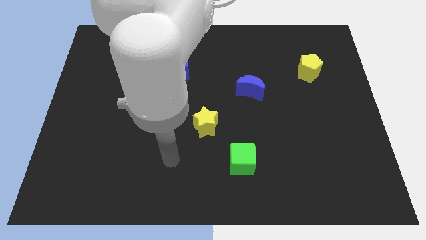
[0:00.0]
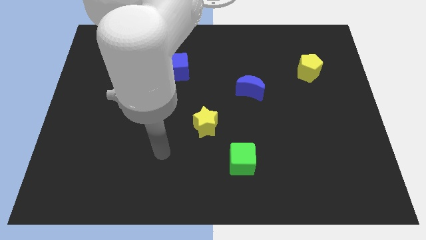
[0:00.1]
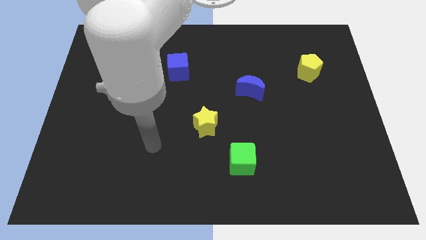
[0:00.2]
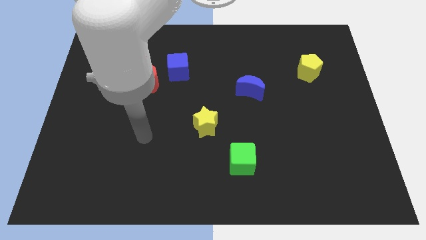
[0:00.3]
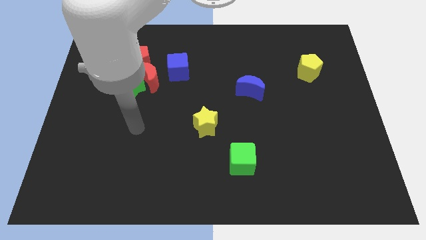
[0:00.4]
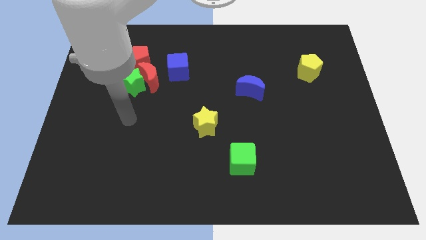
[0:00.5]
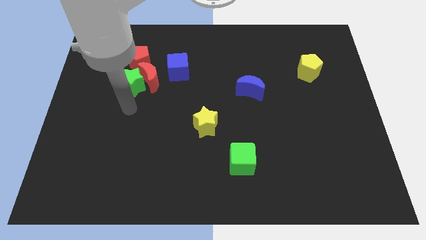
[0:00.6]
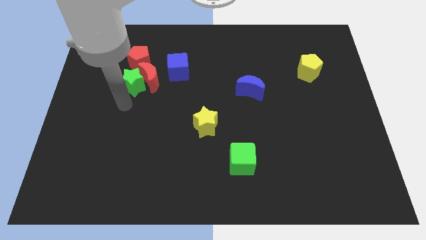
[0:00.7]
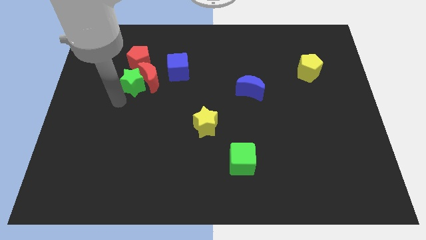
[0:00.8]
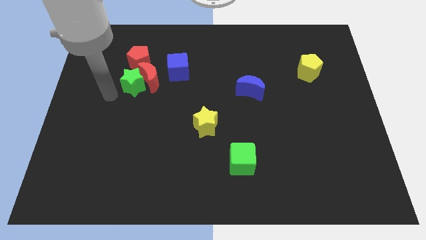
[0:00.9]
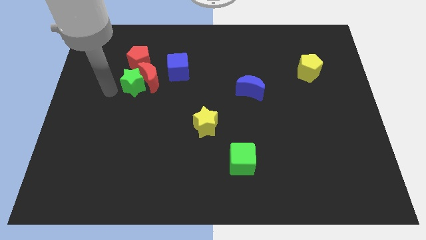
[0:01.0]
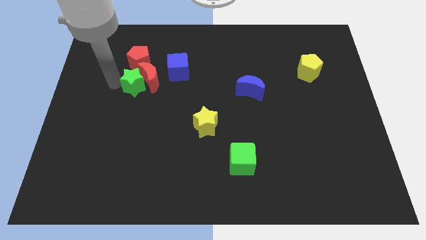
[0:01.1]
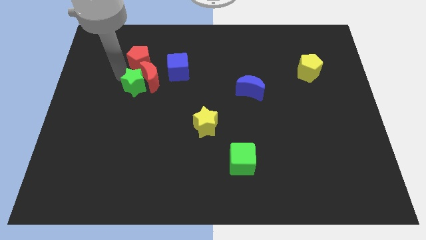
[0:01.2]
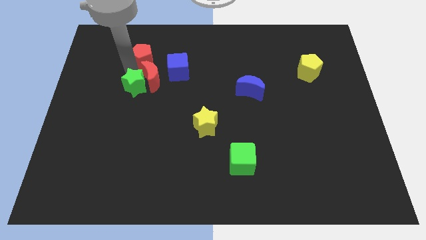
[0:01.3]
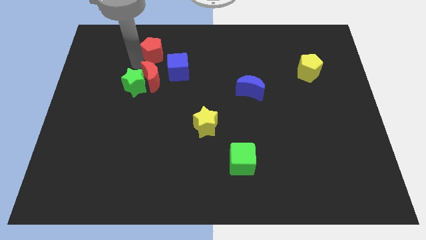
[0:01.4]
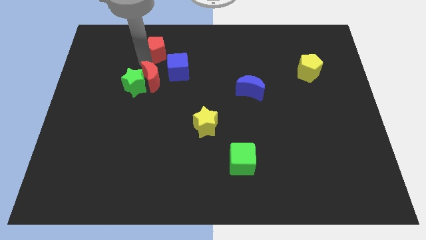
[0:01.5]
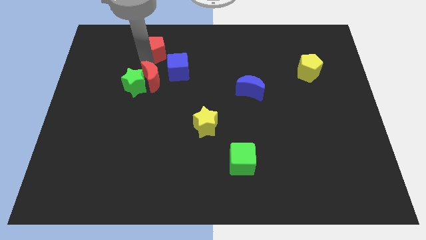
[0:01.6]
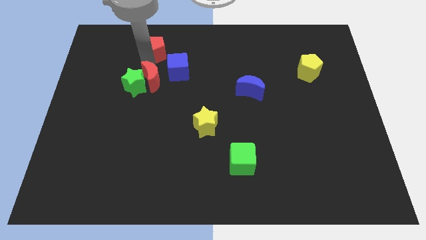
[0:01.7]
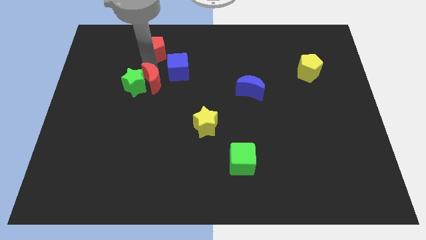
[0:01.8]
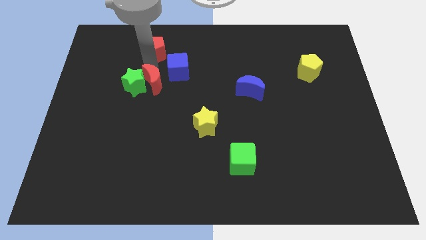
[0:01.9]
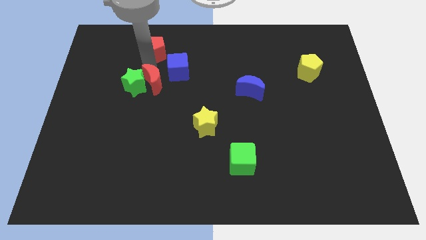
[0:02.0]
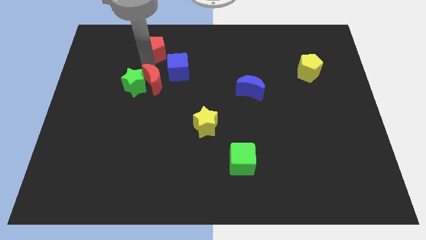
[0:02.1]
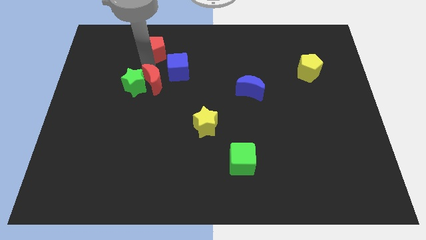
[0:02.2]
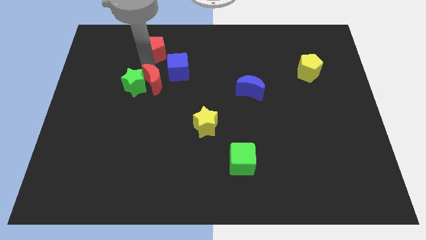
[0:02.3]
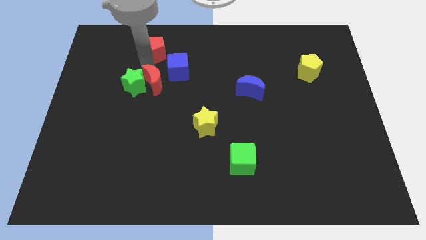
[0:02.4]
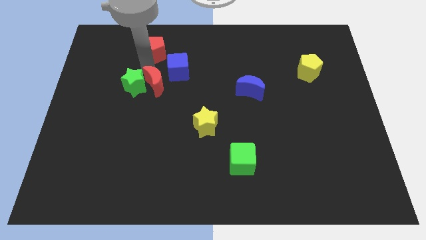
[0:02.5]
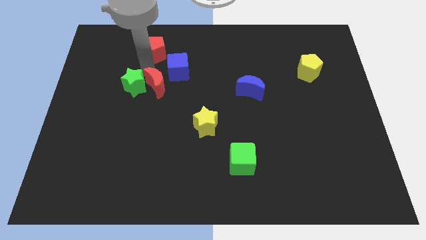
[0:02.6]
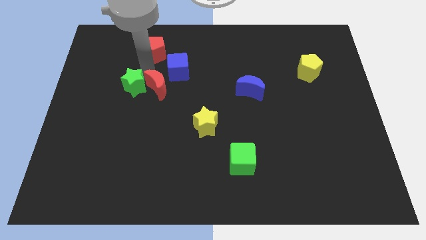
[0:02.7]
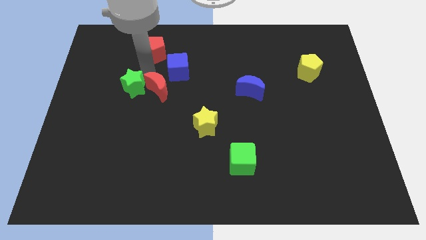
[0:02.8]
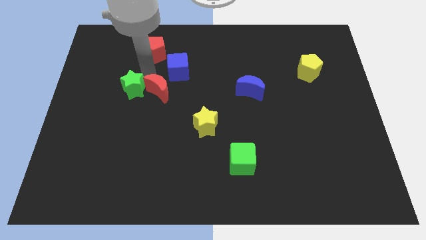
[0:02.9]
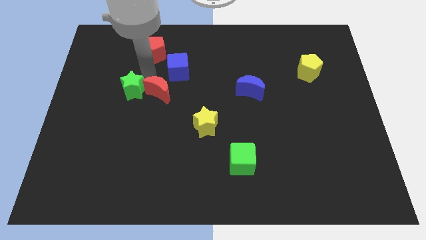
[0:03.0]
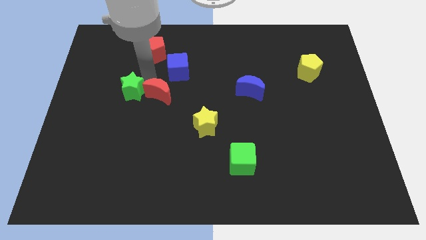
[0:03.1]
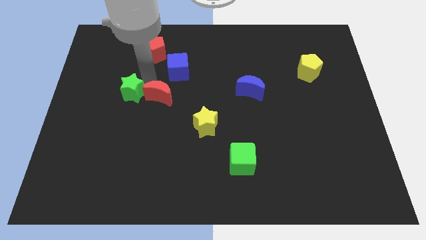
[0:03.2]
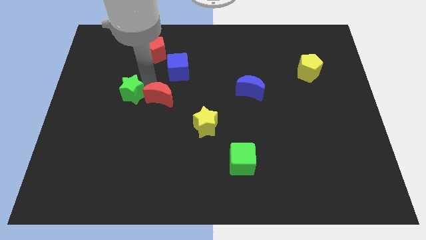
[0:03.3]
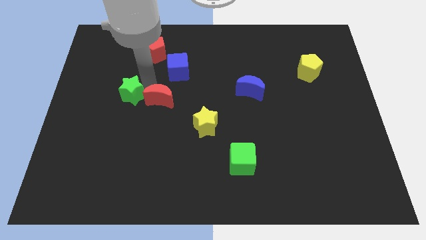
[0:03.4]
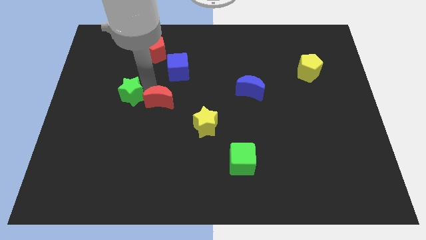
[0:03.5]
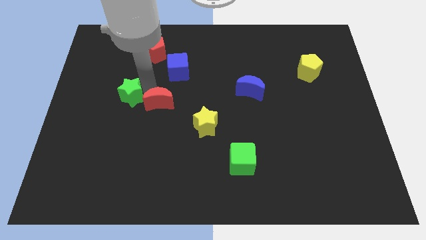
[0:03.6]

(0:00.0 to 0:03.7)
pull the red moon apart from the clump

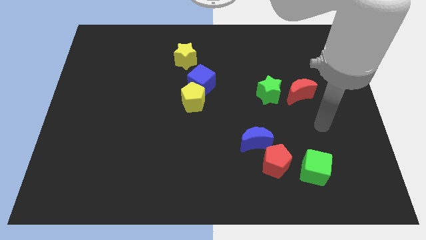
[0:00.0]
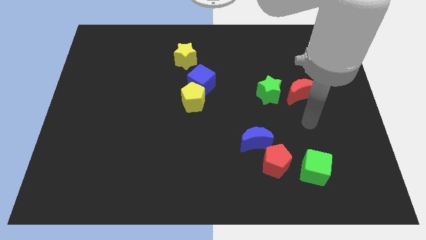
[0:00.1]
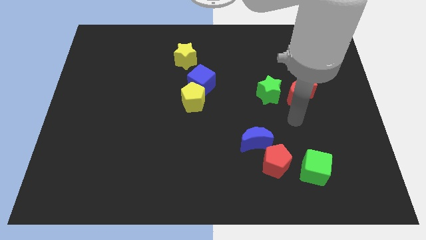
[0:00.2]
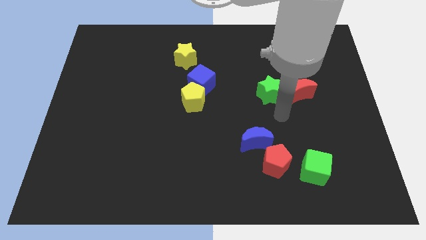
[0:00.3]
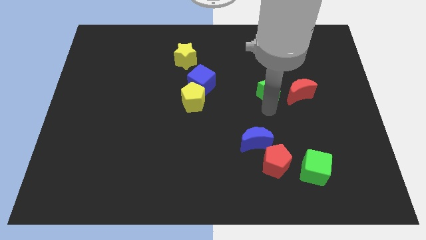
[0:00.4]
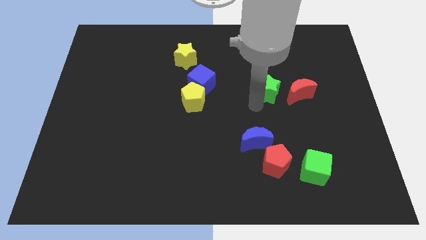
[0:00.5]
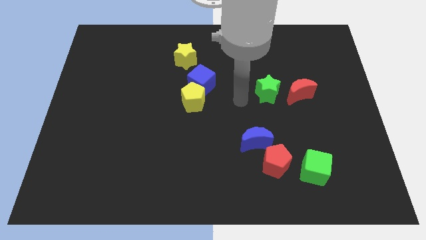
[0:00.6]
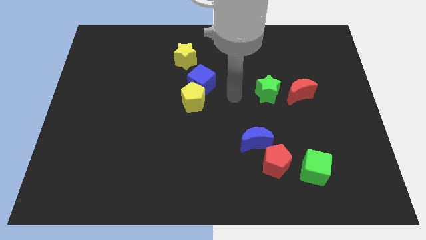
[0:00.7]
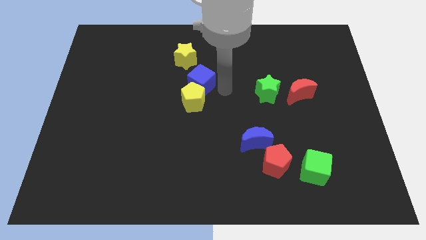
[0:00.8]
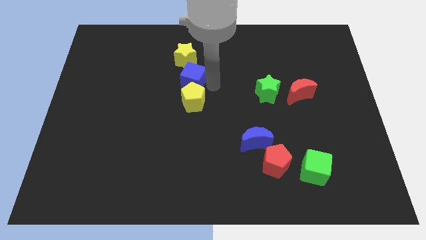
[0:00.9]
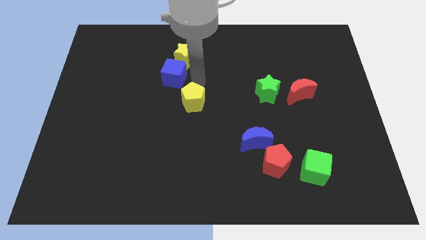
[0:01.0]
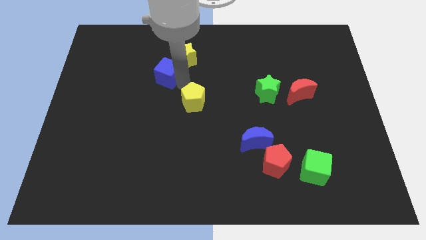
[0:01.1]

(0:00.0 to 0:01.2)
move the yellow pentagon away from the blue cube

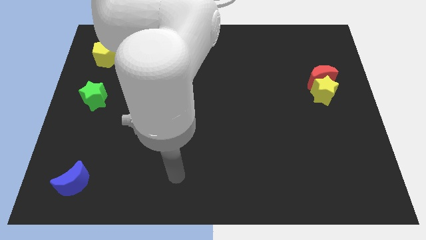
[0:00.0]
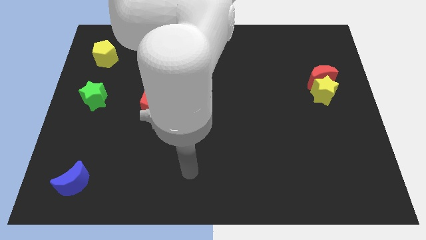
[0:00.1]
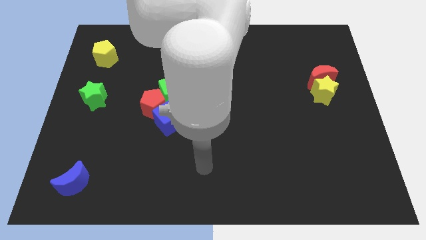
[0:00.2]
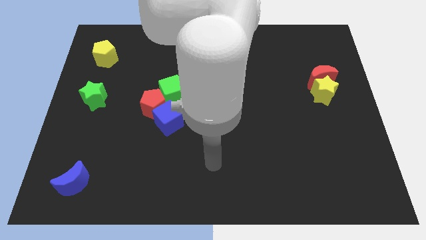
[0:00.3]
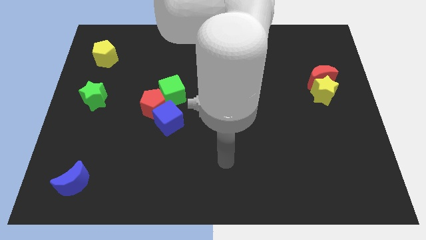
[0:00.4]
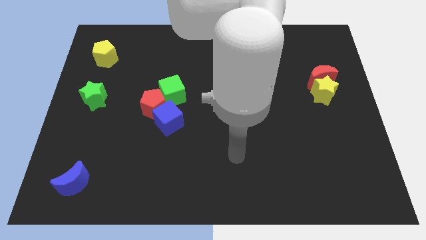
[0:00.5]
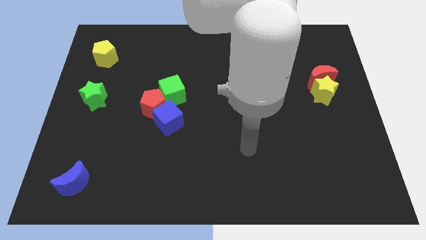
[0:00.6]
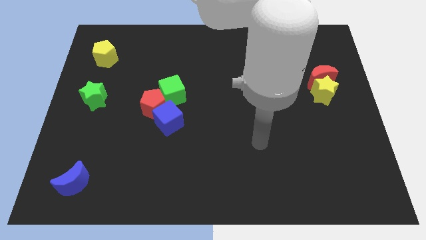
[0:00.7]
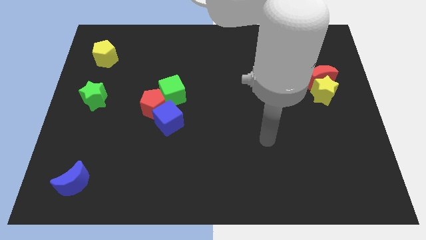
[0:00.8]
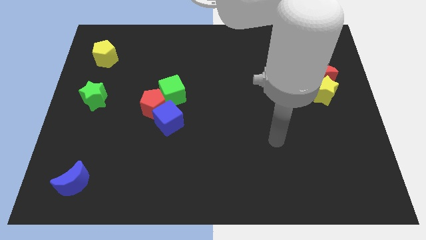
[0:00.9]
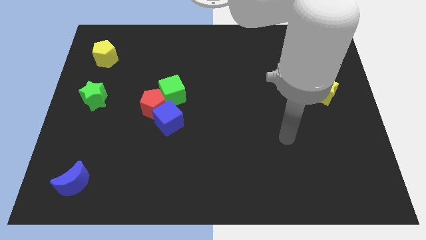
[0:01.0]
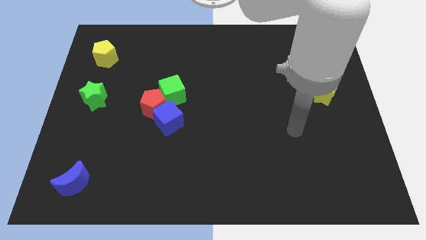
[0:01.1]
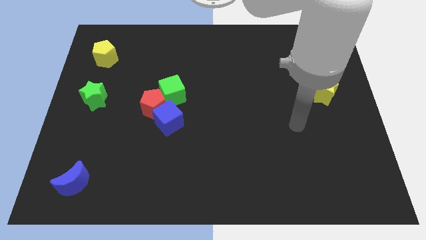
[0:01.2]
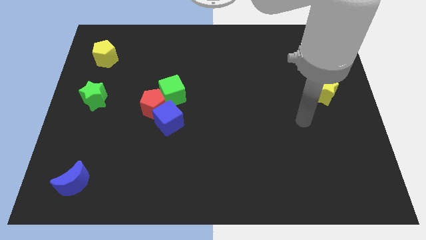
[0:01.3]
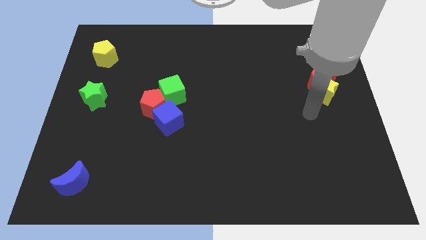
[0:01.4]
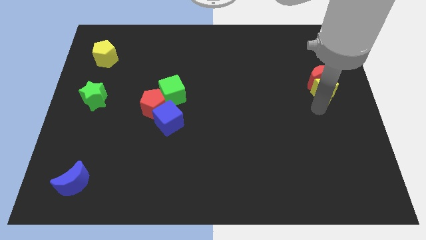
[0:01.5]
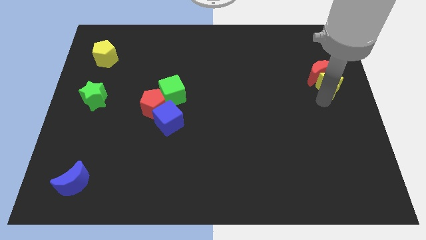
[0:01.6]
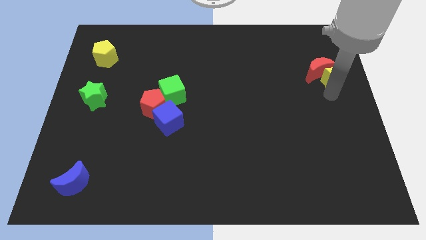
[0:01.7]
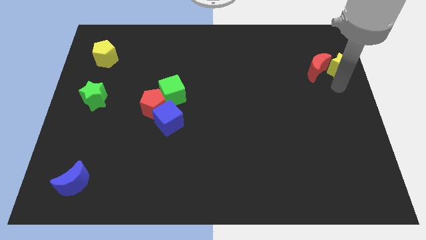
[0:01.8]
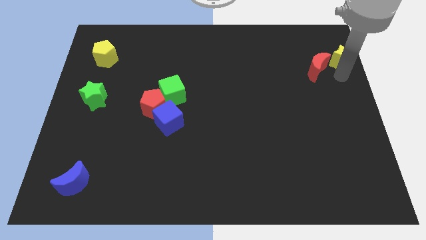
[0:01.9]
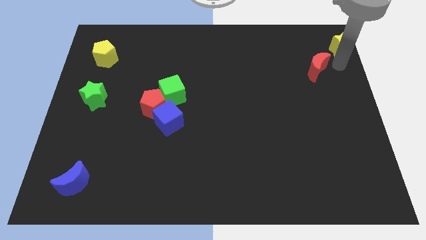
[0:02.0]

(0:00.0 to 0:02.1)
move the red moon away from the yellow star

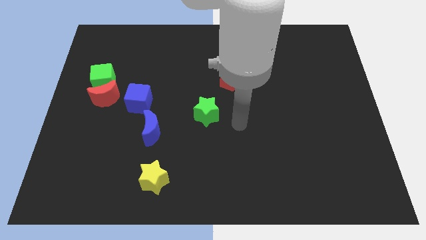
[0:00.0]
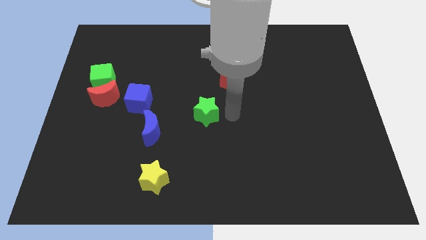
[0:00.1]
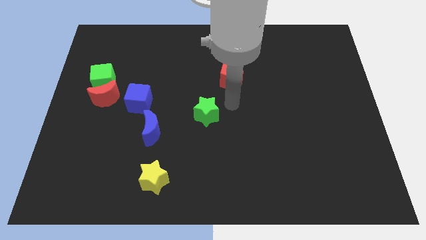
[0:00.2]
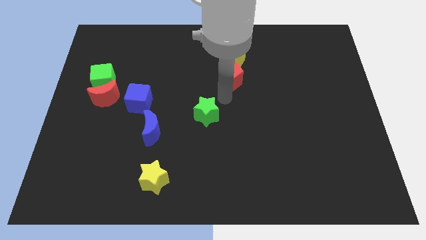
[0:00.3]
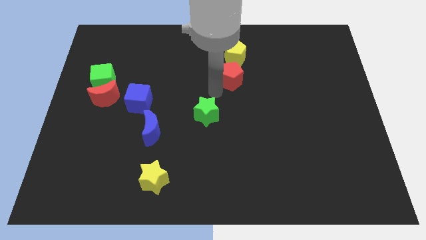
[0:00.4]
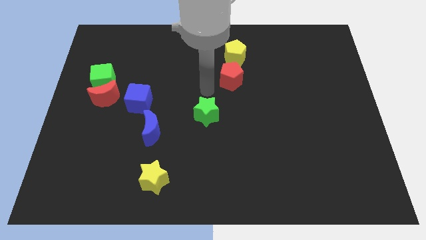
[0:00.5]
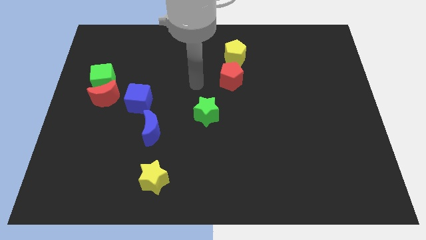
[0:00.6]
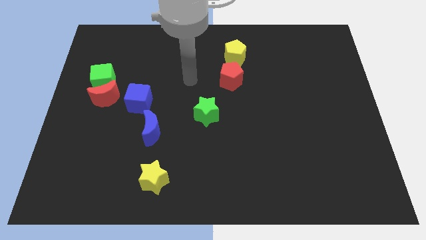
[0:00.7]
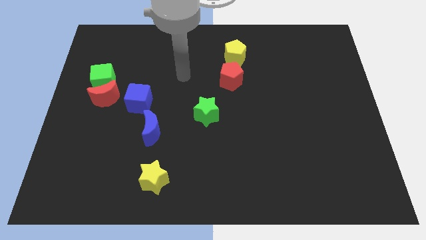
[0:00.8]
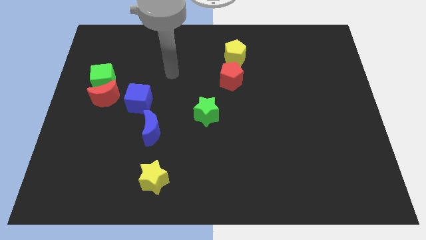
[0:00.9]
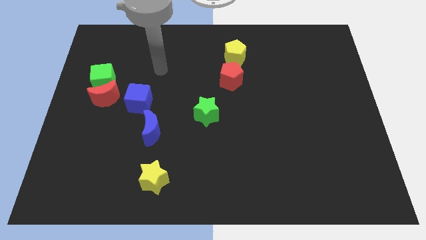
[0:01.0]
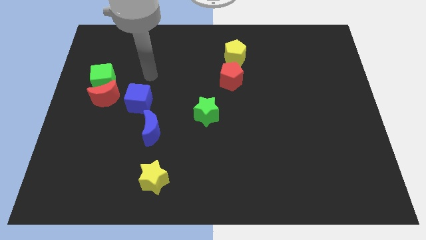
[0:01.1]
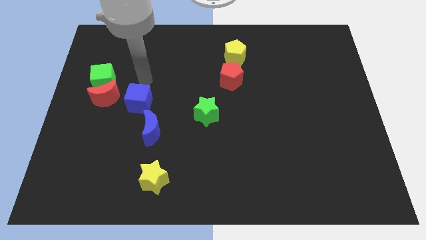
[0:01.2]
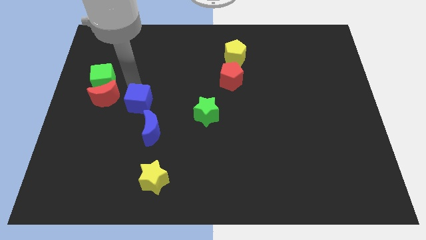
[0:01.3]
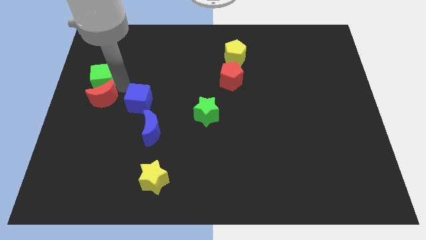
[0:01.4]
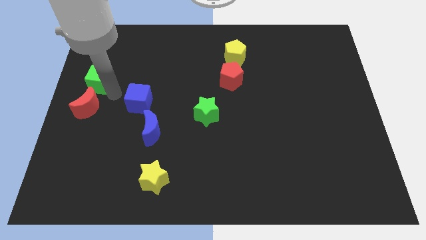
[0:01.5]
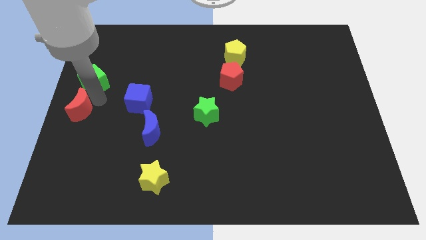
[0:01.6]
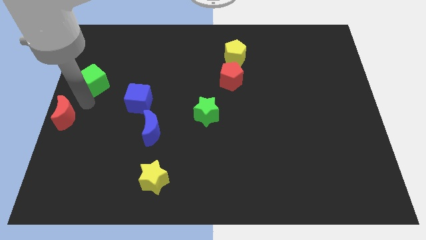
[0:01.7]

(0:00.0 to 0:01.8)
move the green cube away from the red moon

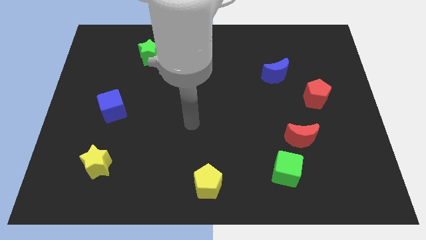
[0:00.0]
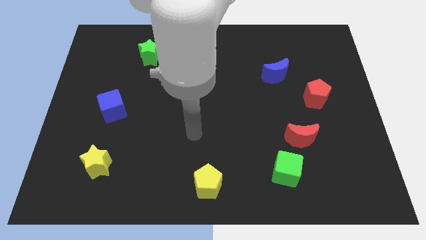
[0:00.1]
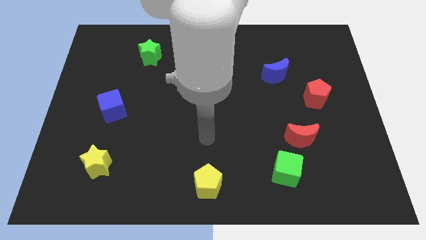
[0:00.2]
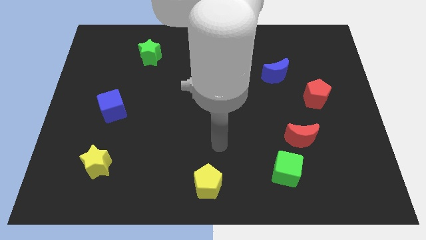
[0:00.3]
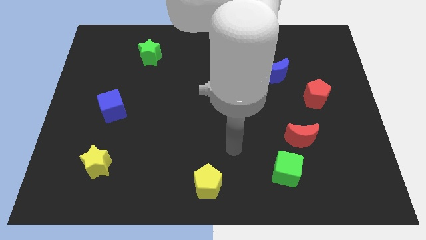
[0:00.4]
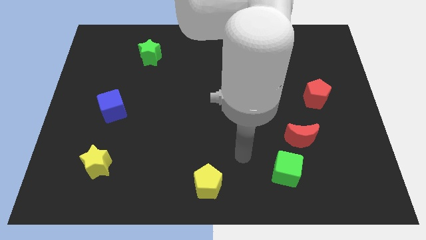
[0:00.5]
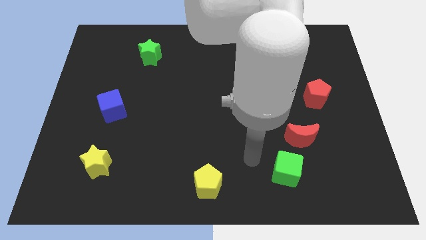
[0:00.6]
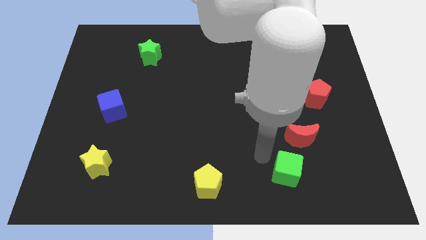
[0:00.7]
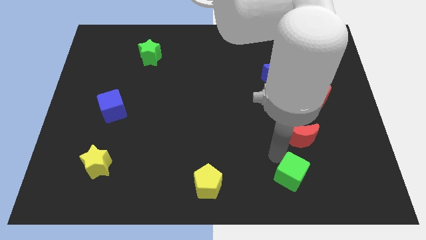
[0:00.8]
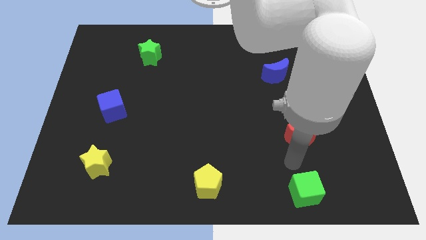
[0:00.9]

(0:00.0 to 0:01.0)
pull the red moon apart from the green cube
